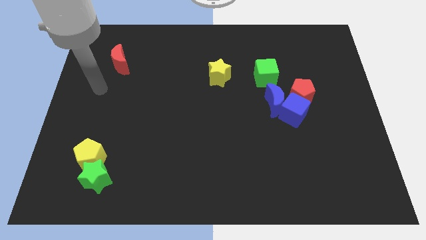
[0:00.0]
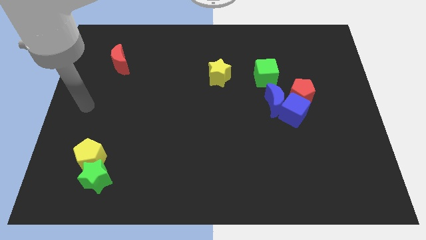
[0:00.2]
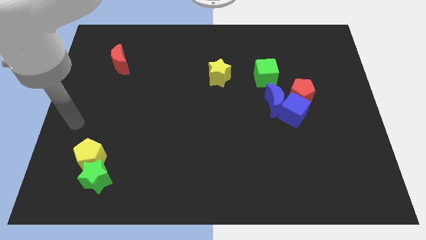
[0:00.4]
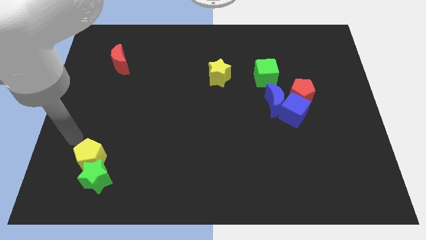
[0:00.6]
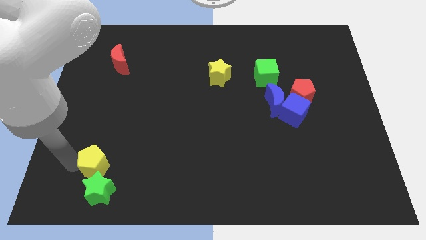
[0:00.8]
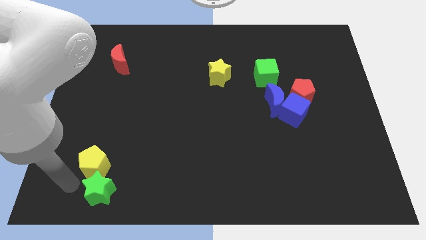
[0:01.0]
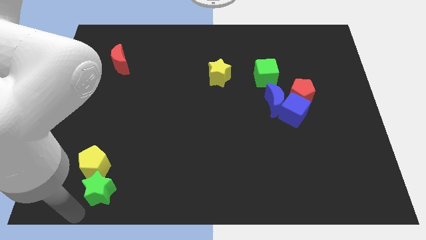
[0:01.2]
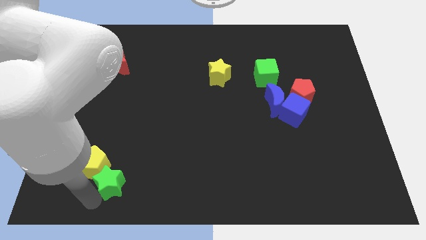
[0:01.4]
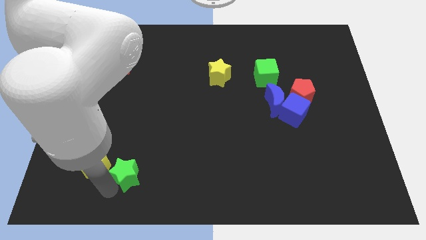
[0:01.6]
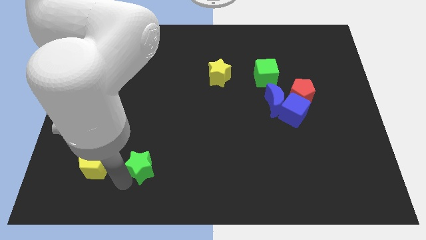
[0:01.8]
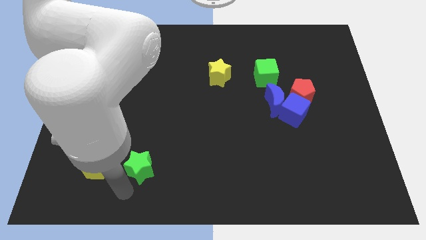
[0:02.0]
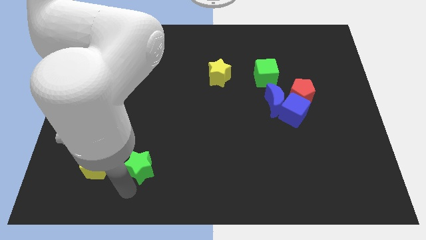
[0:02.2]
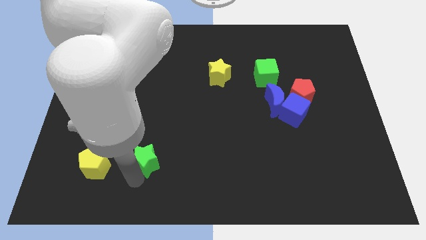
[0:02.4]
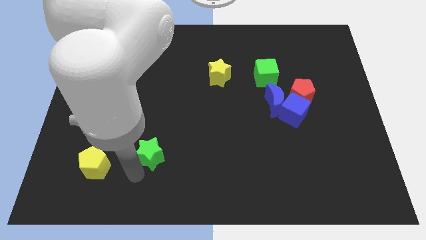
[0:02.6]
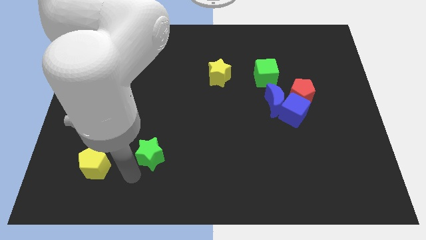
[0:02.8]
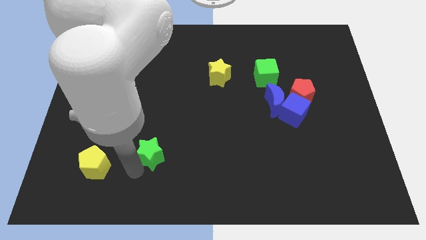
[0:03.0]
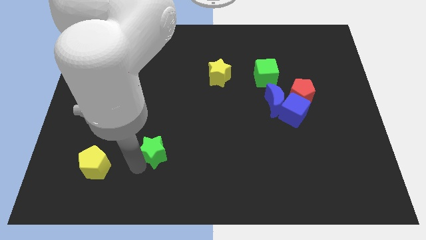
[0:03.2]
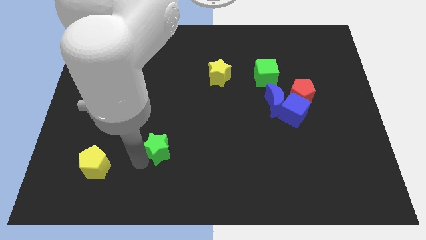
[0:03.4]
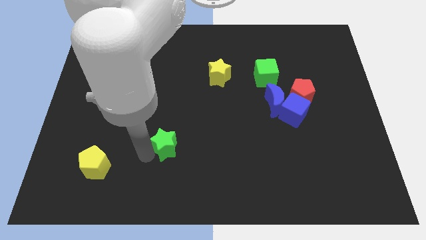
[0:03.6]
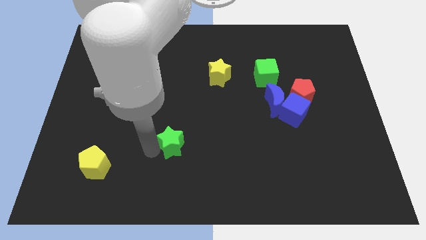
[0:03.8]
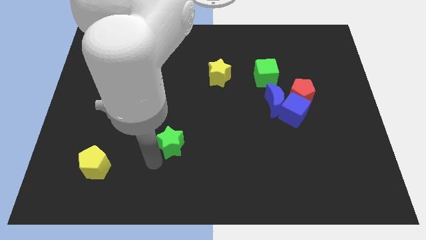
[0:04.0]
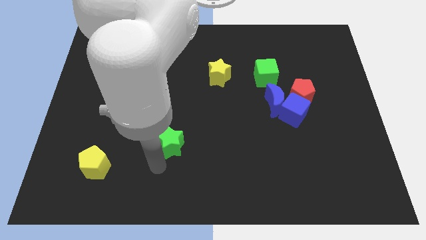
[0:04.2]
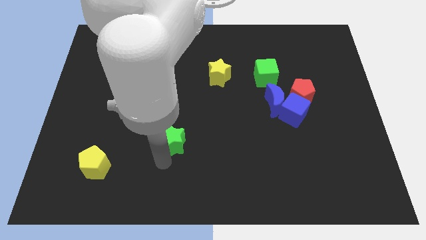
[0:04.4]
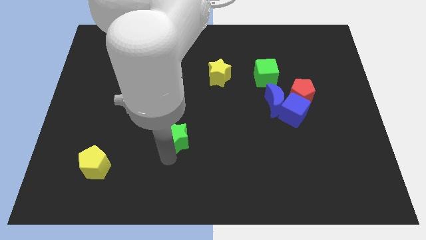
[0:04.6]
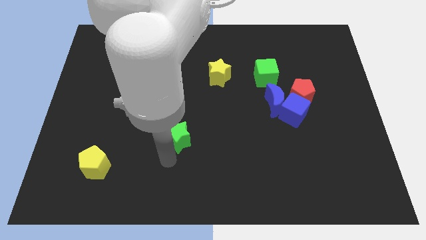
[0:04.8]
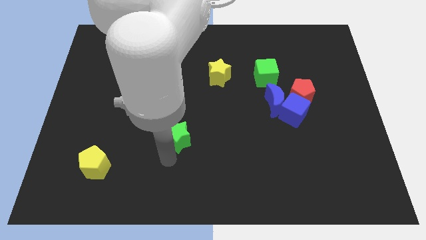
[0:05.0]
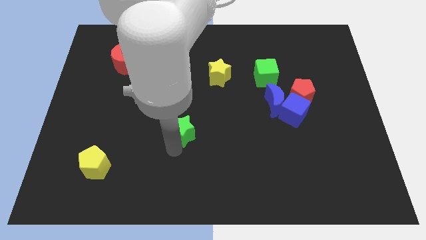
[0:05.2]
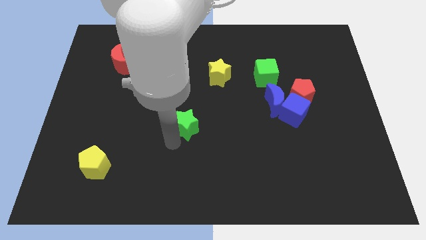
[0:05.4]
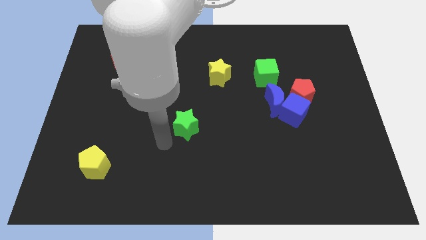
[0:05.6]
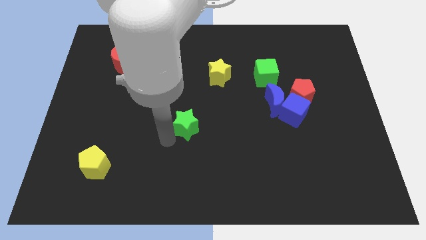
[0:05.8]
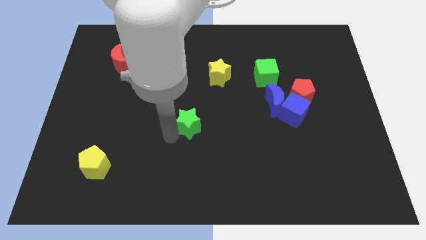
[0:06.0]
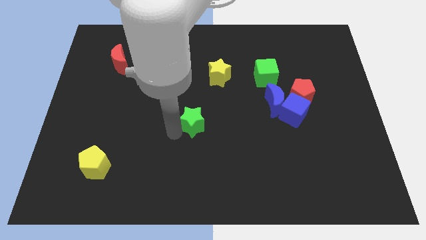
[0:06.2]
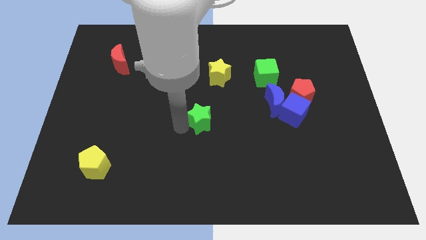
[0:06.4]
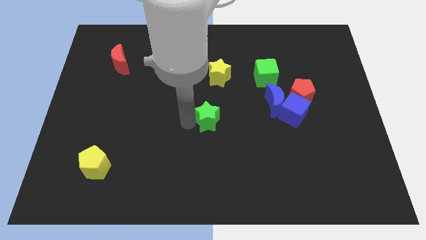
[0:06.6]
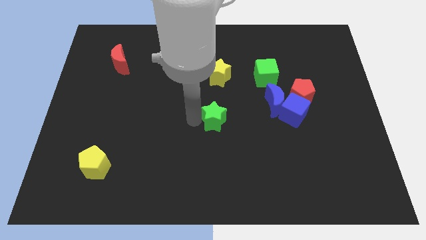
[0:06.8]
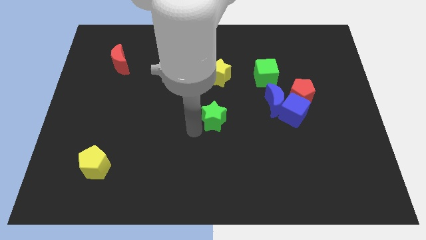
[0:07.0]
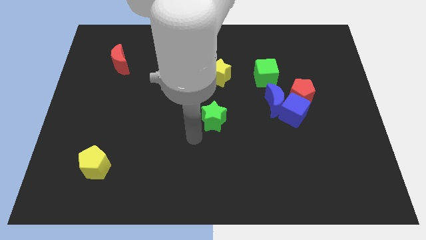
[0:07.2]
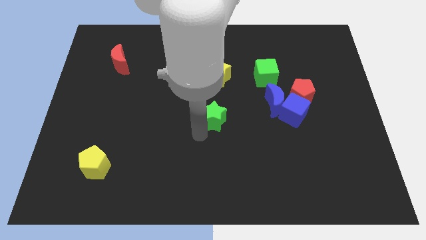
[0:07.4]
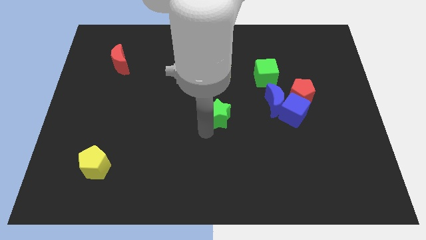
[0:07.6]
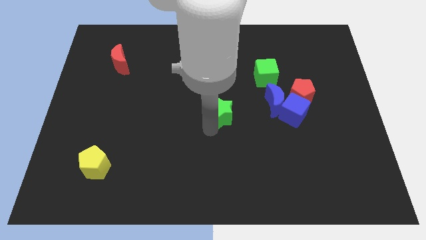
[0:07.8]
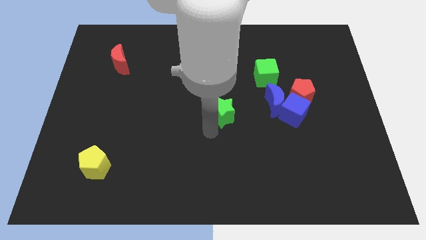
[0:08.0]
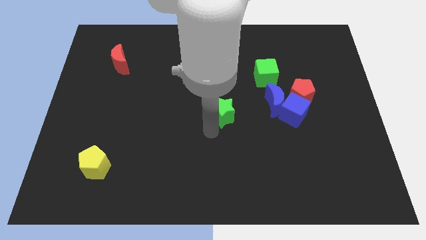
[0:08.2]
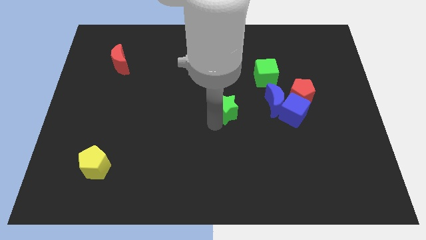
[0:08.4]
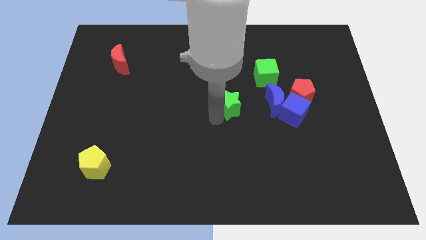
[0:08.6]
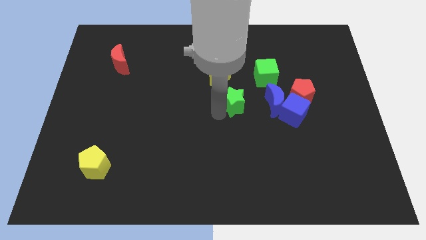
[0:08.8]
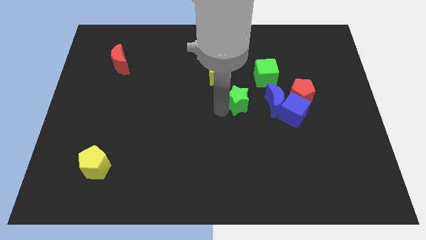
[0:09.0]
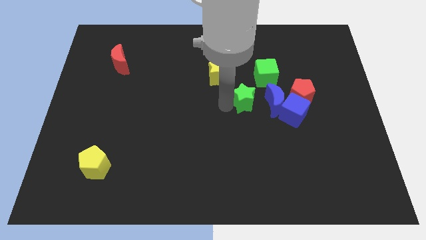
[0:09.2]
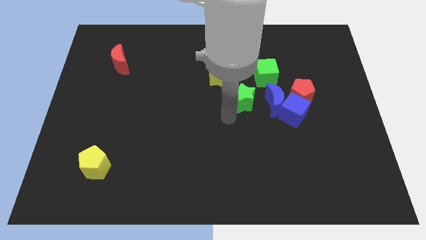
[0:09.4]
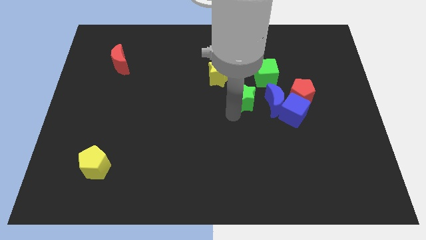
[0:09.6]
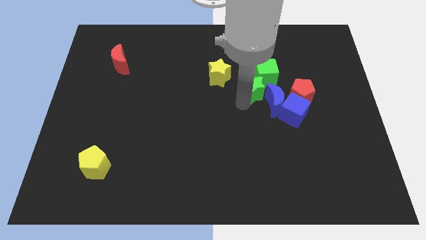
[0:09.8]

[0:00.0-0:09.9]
move the green star towards the green cube

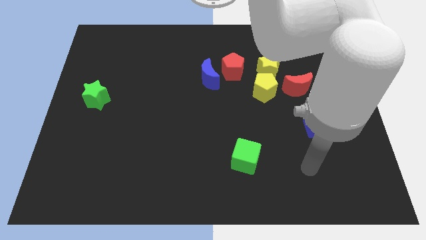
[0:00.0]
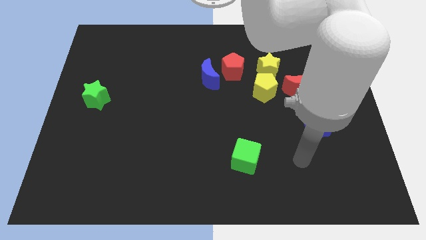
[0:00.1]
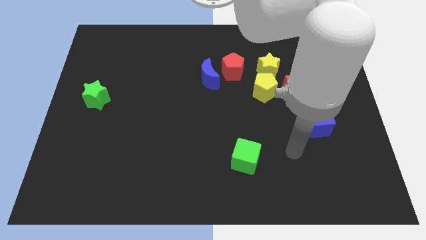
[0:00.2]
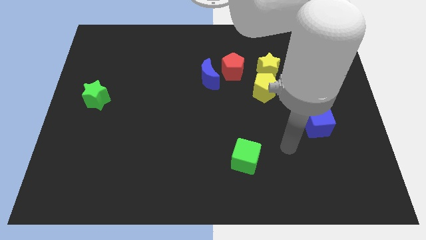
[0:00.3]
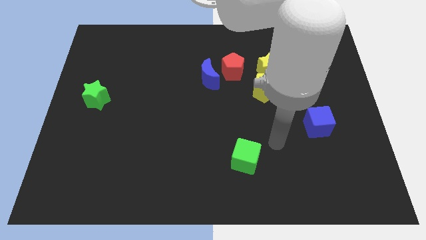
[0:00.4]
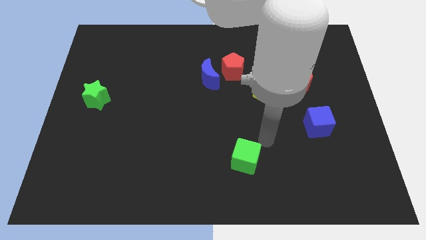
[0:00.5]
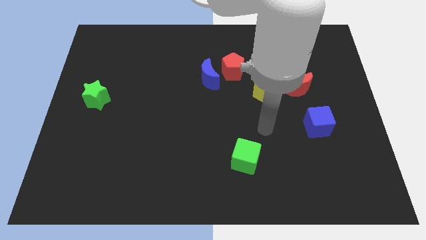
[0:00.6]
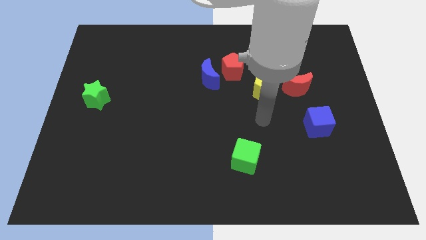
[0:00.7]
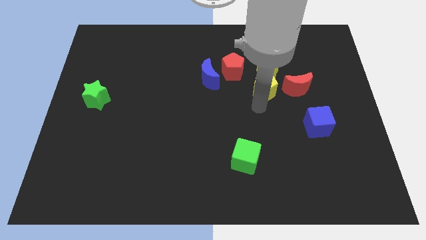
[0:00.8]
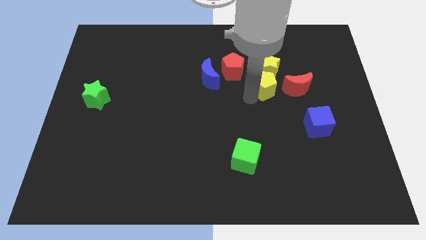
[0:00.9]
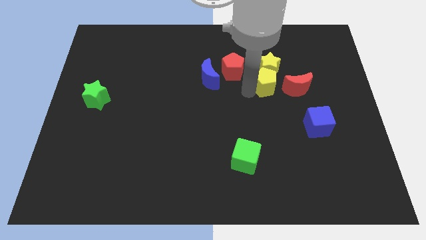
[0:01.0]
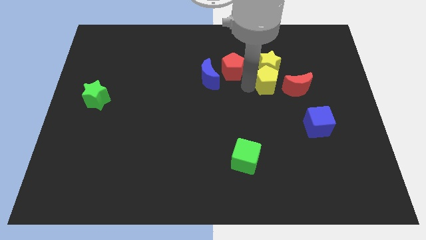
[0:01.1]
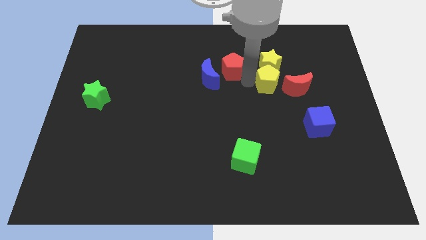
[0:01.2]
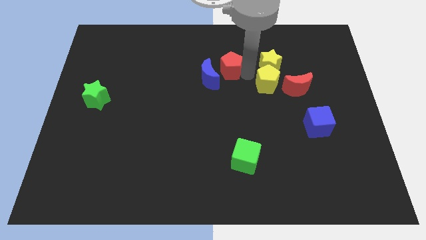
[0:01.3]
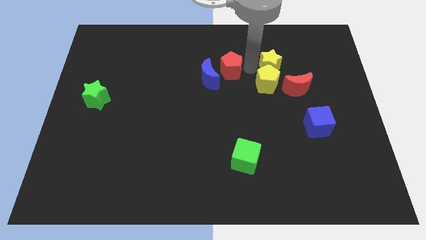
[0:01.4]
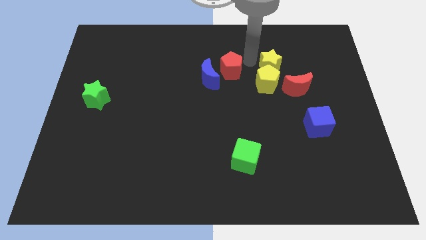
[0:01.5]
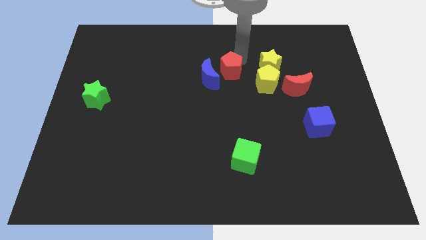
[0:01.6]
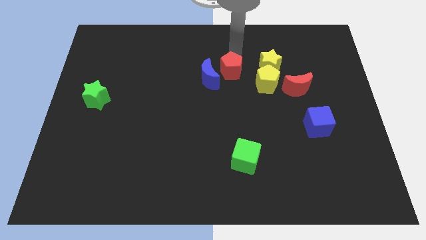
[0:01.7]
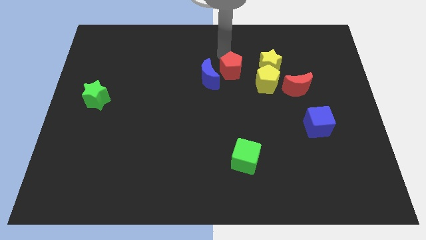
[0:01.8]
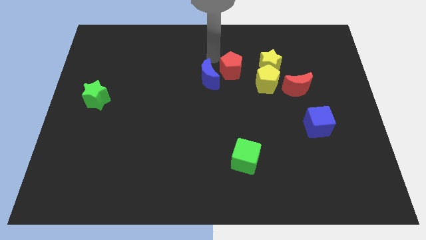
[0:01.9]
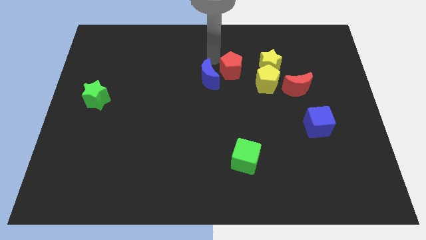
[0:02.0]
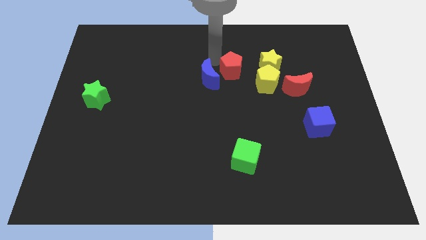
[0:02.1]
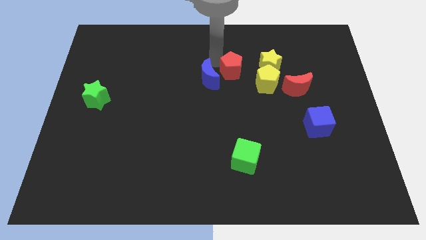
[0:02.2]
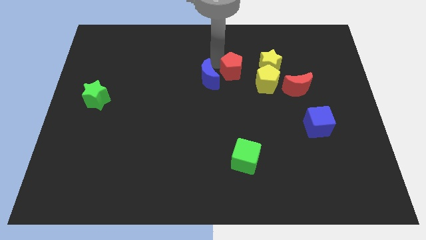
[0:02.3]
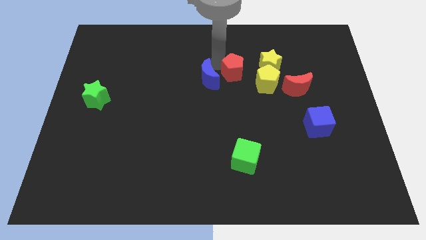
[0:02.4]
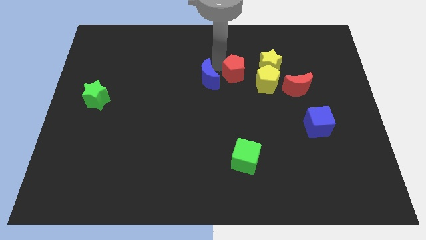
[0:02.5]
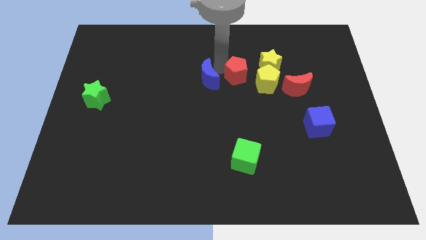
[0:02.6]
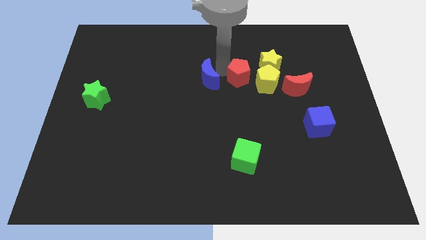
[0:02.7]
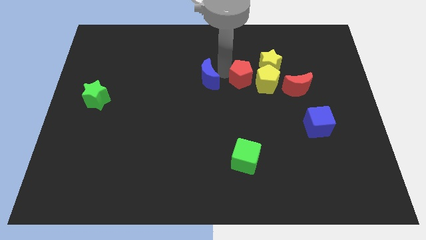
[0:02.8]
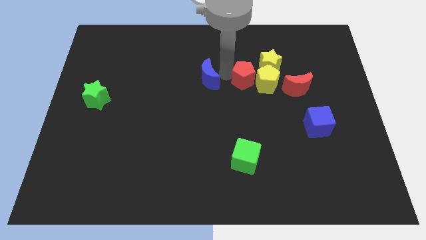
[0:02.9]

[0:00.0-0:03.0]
put the red pentagon to the yellow pentagon
